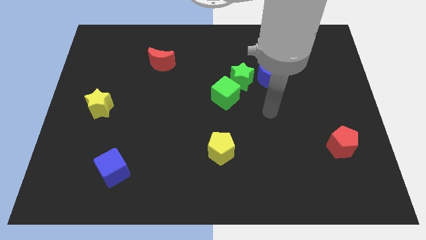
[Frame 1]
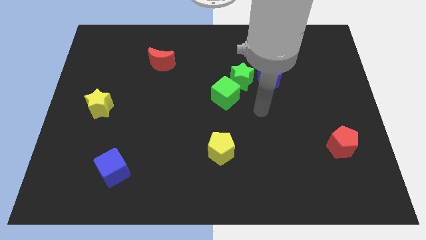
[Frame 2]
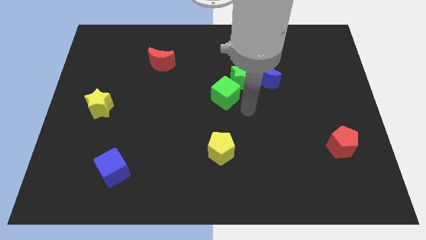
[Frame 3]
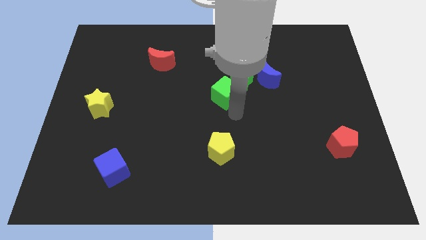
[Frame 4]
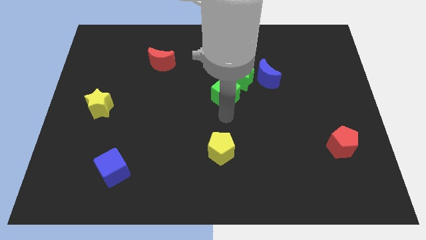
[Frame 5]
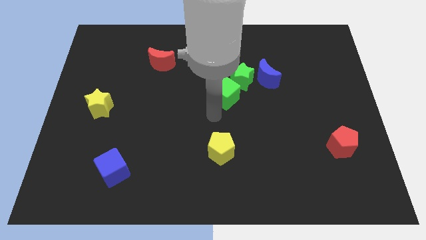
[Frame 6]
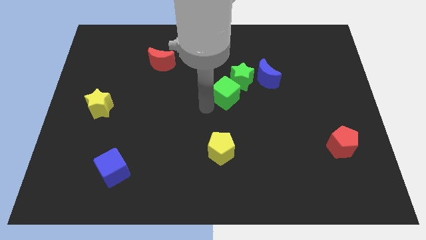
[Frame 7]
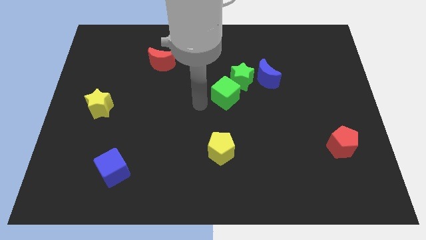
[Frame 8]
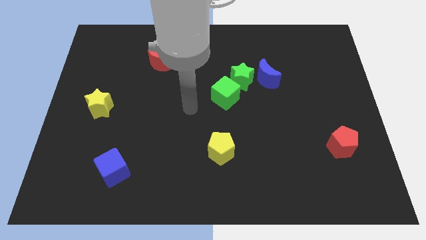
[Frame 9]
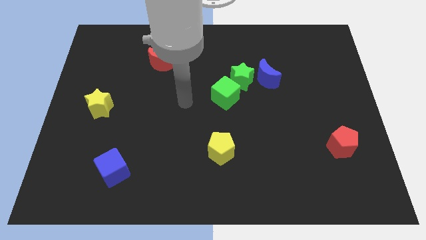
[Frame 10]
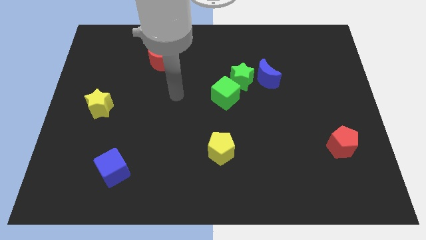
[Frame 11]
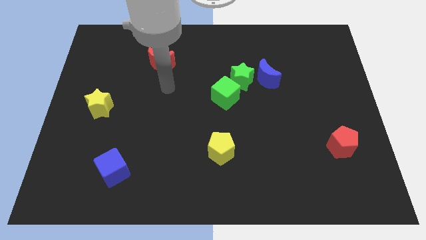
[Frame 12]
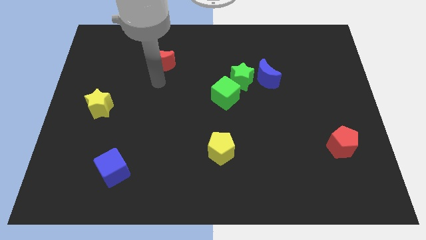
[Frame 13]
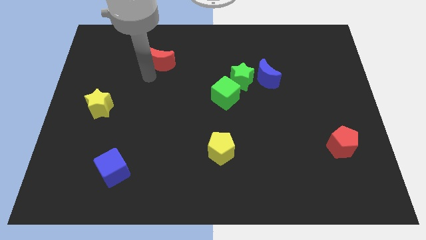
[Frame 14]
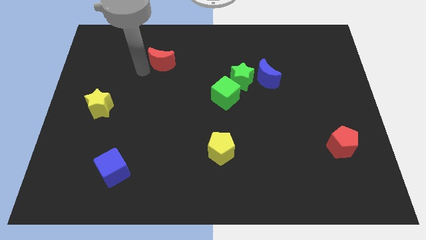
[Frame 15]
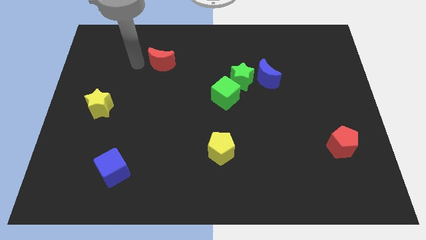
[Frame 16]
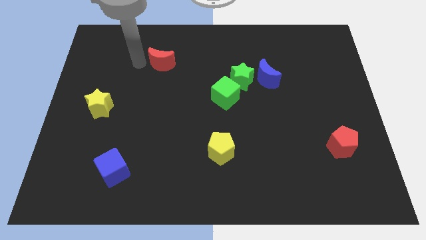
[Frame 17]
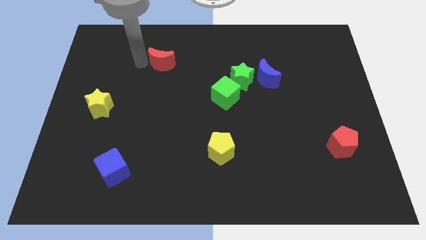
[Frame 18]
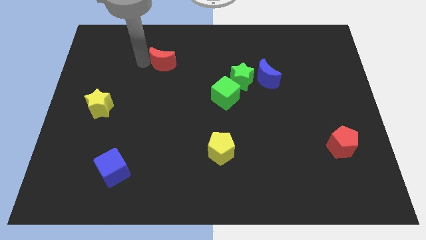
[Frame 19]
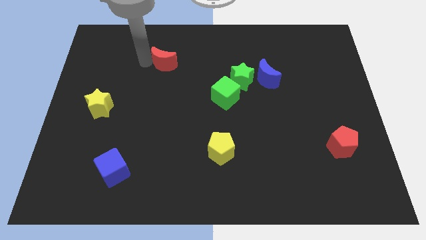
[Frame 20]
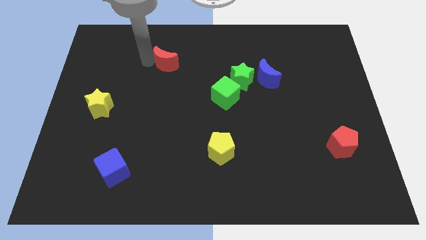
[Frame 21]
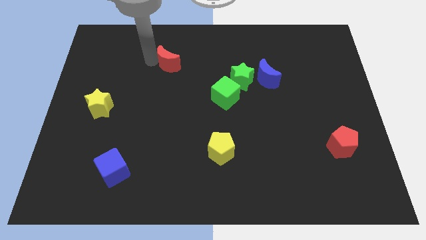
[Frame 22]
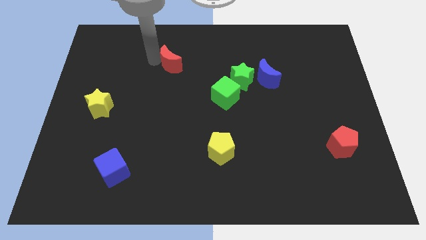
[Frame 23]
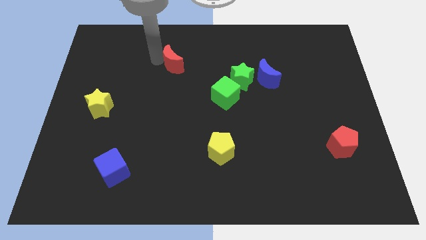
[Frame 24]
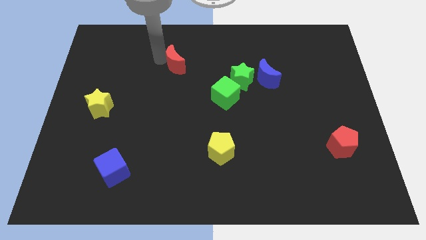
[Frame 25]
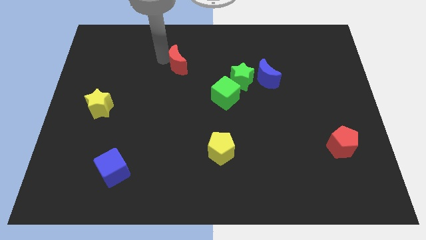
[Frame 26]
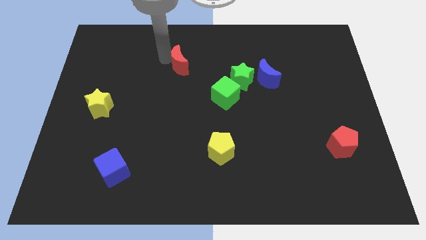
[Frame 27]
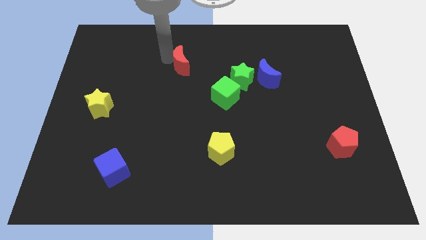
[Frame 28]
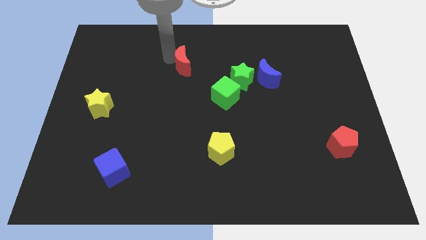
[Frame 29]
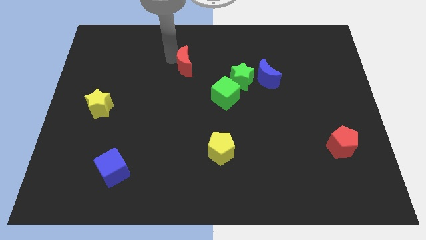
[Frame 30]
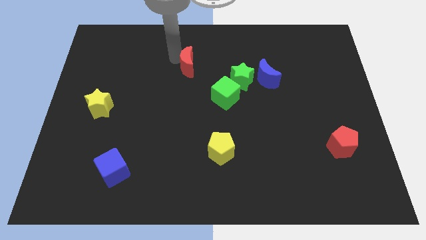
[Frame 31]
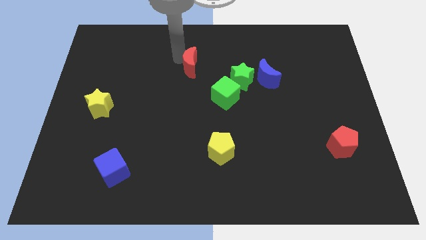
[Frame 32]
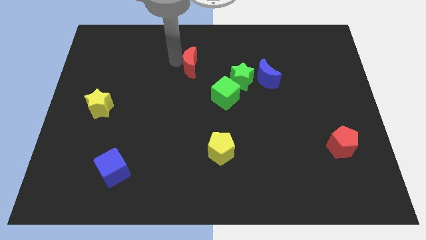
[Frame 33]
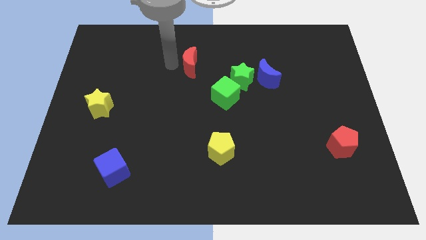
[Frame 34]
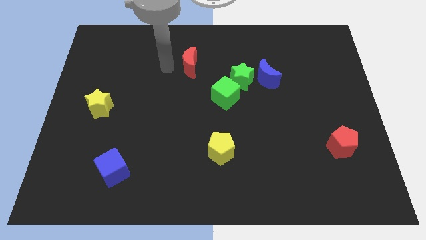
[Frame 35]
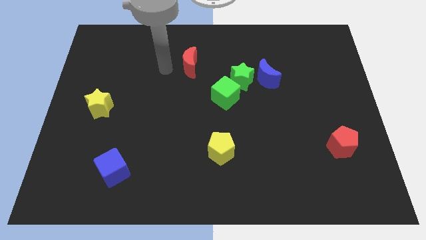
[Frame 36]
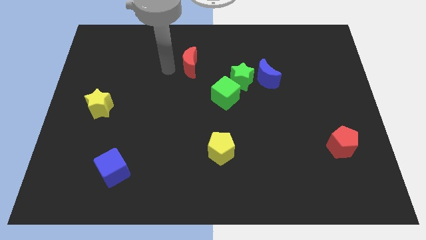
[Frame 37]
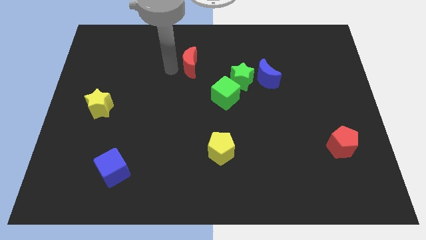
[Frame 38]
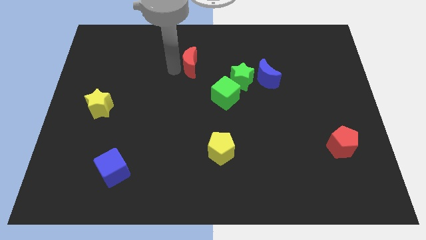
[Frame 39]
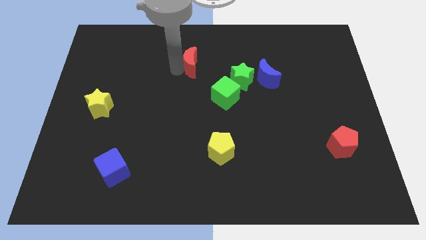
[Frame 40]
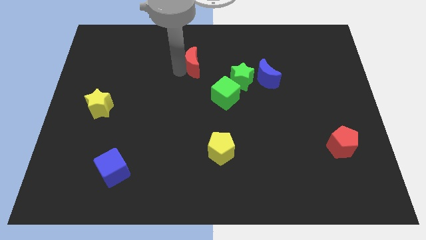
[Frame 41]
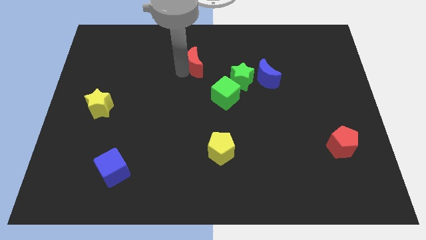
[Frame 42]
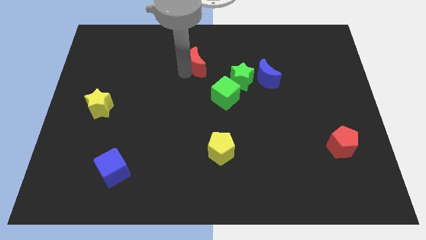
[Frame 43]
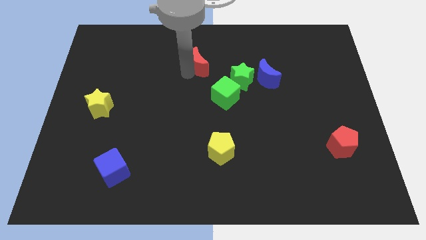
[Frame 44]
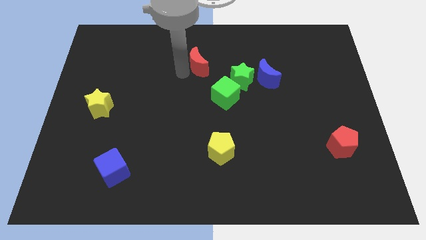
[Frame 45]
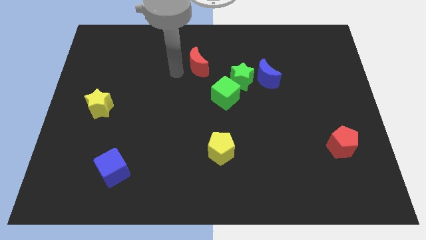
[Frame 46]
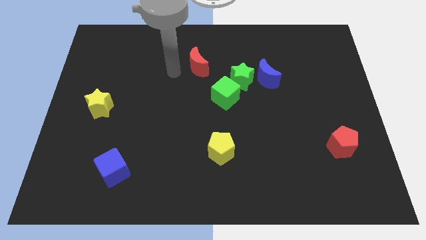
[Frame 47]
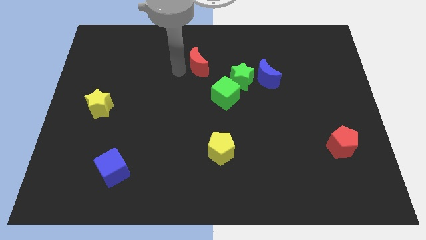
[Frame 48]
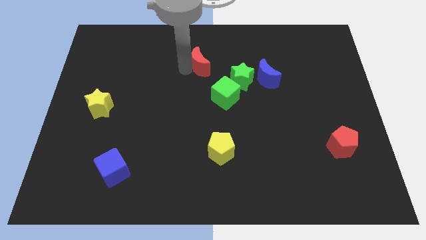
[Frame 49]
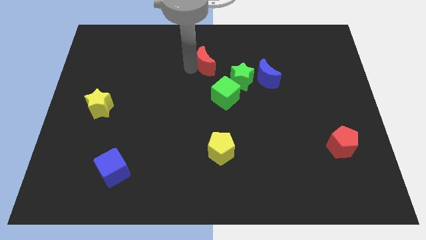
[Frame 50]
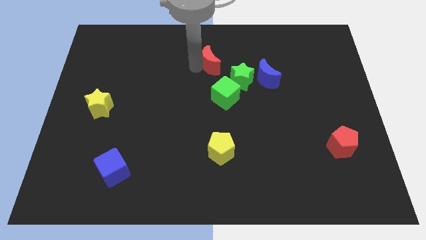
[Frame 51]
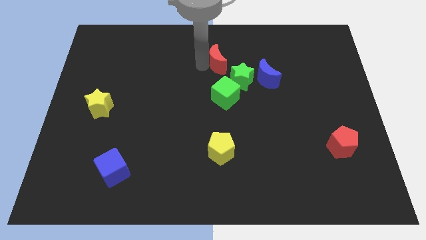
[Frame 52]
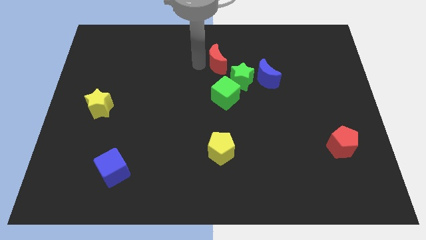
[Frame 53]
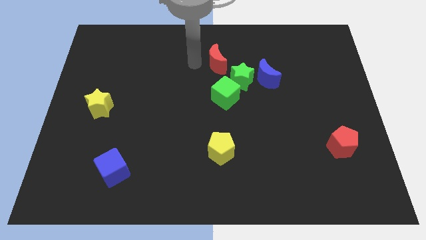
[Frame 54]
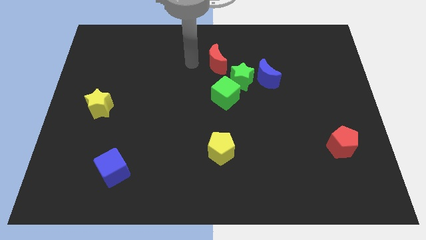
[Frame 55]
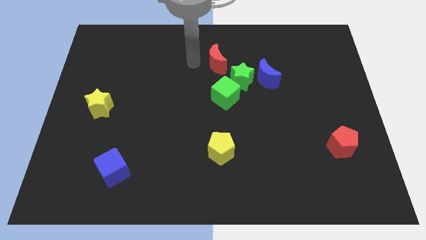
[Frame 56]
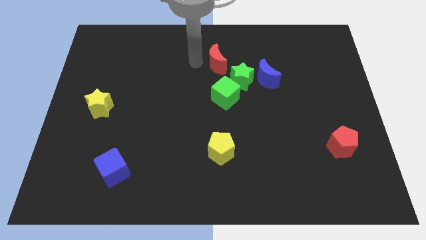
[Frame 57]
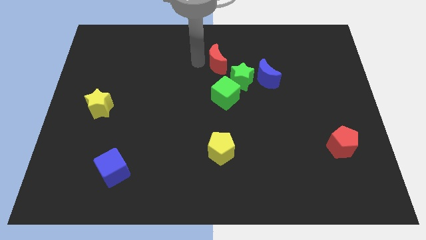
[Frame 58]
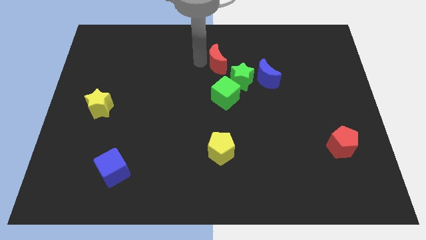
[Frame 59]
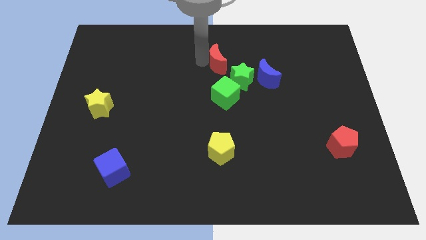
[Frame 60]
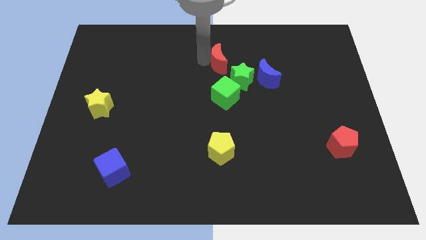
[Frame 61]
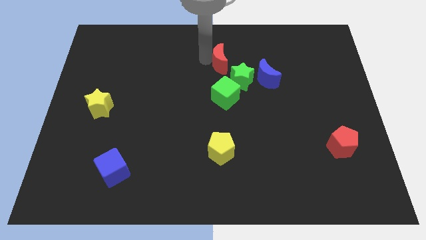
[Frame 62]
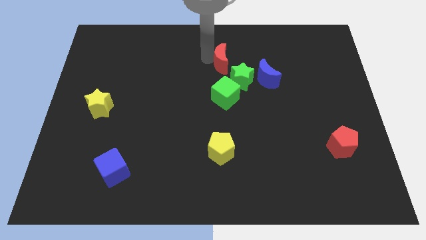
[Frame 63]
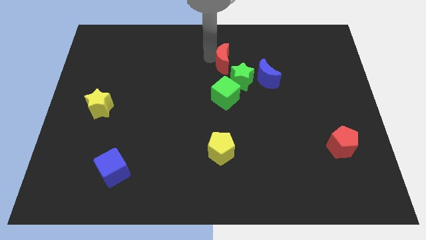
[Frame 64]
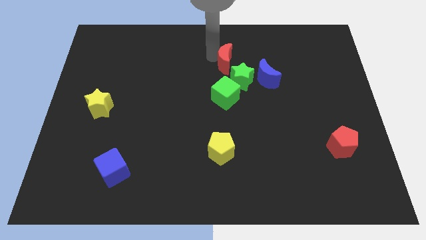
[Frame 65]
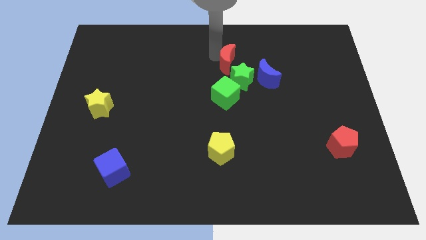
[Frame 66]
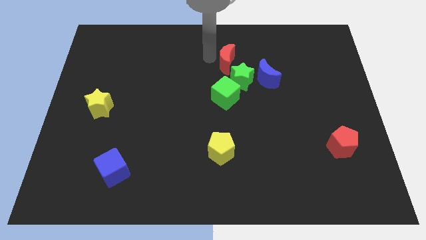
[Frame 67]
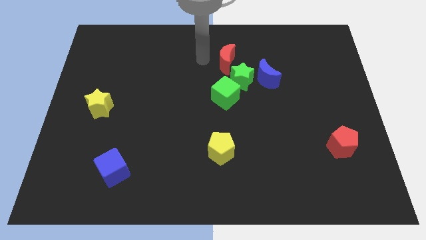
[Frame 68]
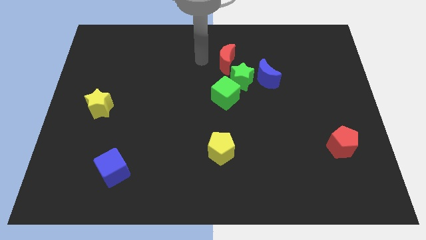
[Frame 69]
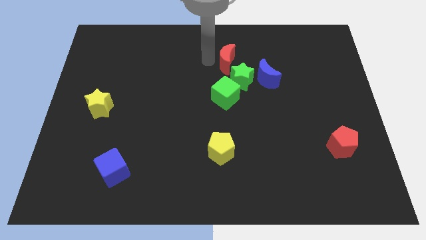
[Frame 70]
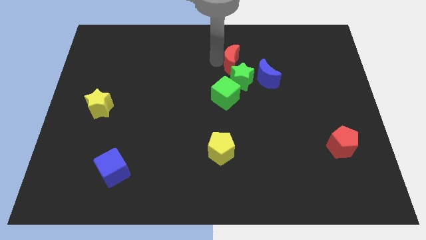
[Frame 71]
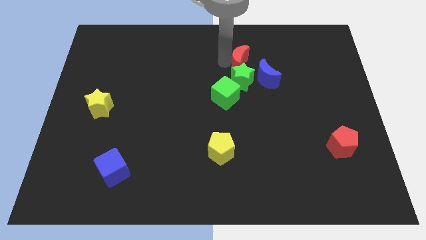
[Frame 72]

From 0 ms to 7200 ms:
slide the red moon to the top right of the green star
